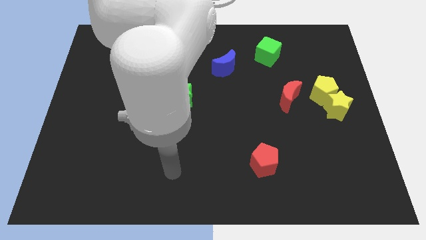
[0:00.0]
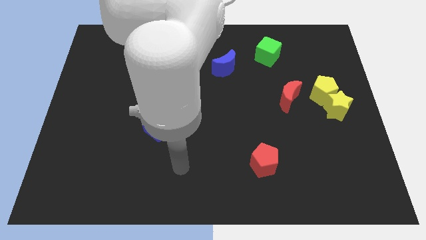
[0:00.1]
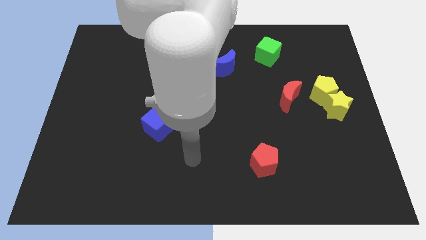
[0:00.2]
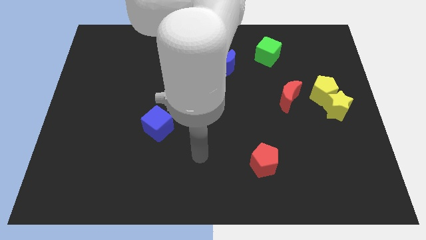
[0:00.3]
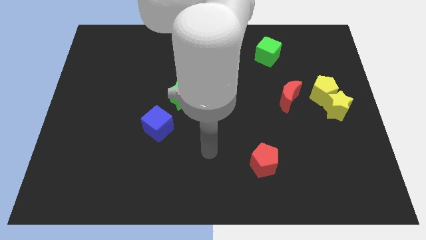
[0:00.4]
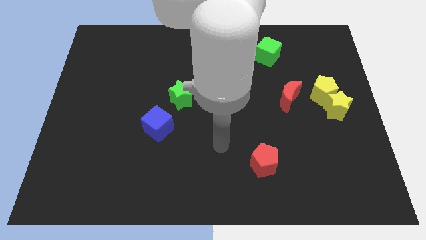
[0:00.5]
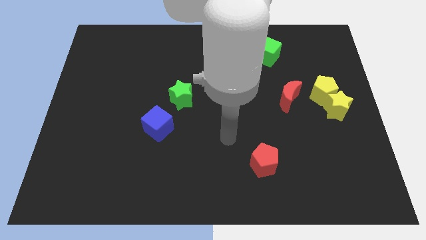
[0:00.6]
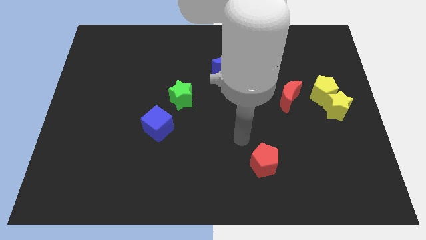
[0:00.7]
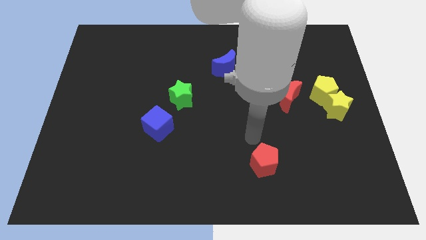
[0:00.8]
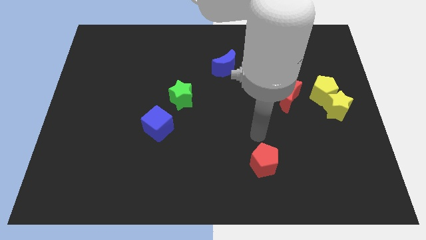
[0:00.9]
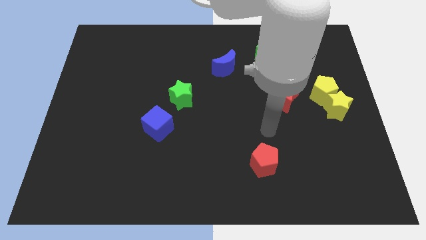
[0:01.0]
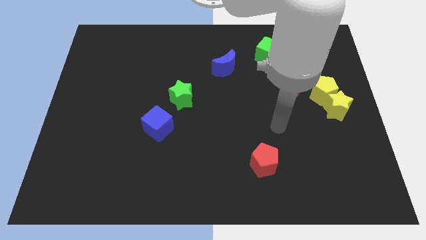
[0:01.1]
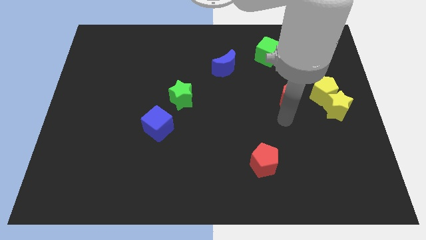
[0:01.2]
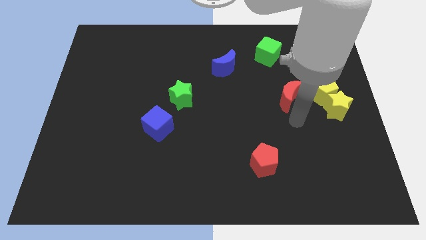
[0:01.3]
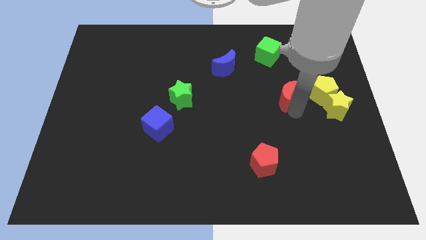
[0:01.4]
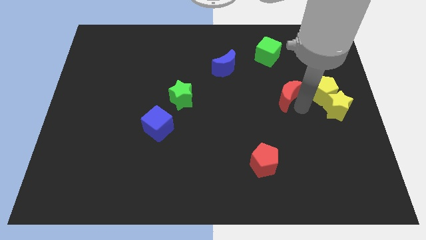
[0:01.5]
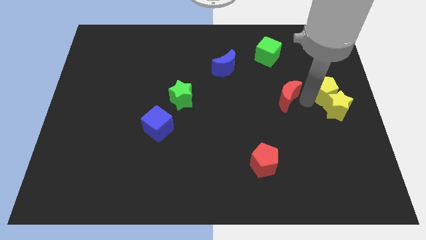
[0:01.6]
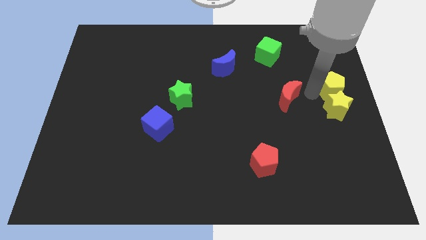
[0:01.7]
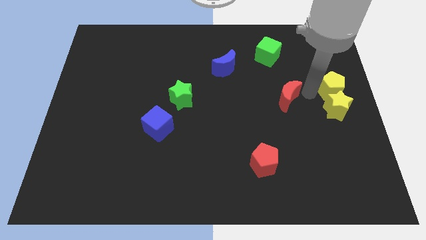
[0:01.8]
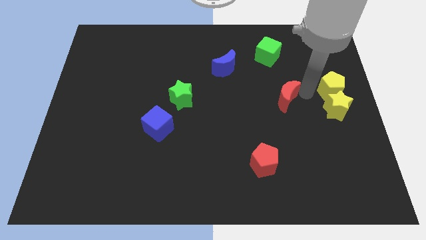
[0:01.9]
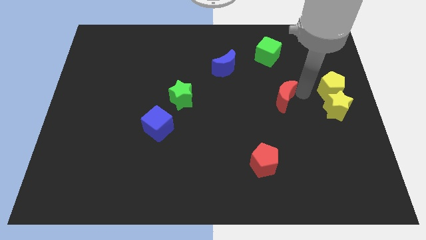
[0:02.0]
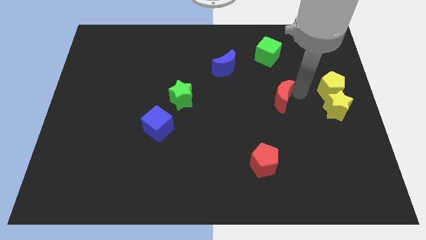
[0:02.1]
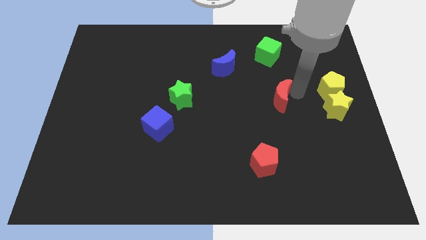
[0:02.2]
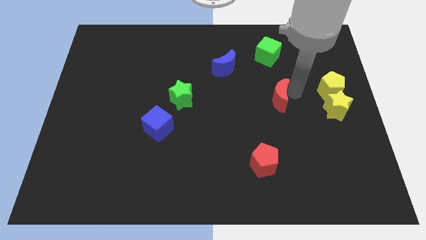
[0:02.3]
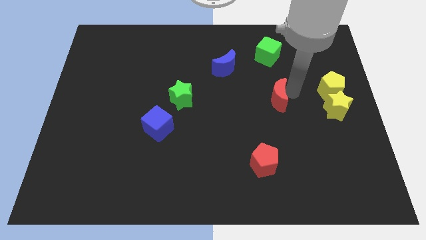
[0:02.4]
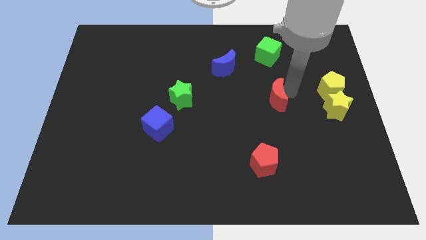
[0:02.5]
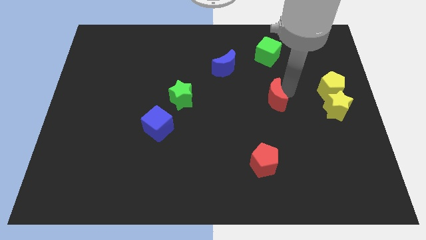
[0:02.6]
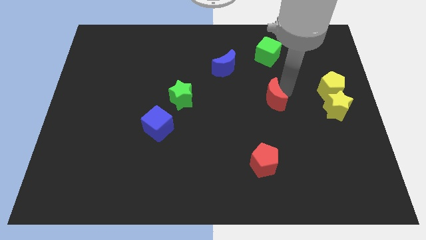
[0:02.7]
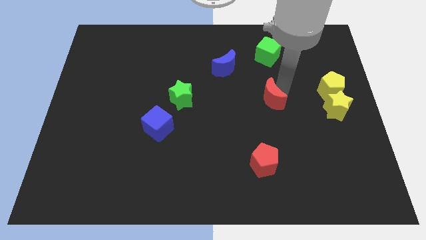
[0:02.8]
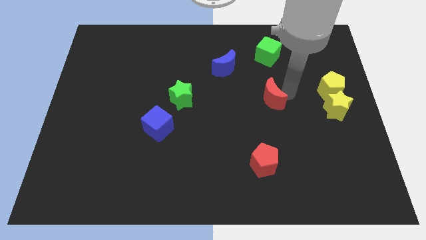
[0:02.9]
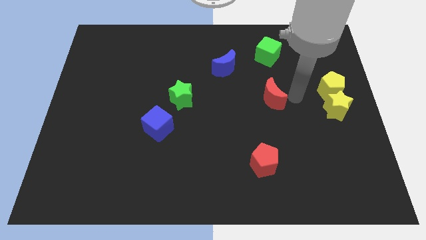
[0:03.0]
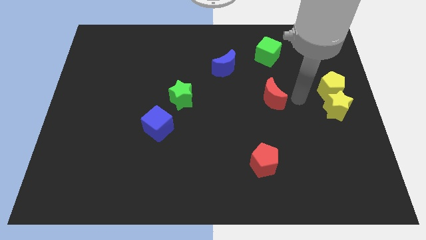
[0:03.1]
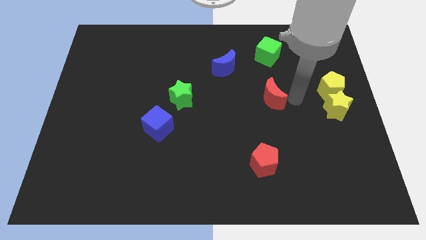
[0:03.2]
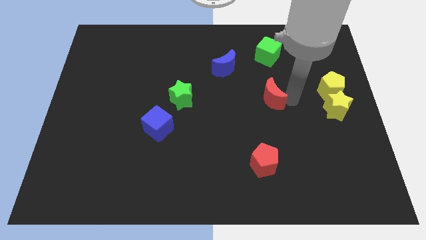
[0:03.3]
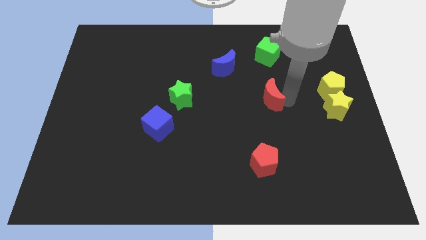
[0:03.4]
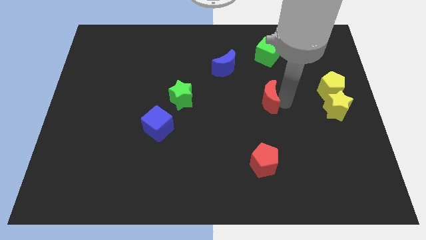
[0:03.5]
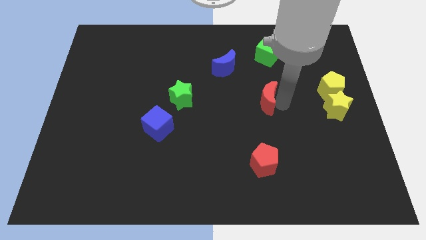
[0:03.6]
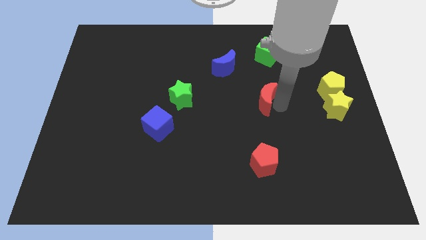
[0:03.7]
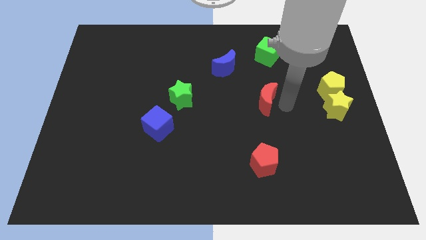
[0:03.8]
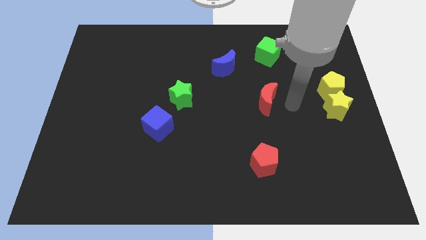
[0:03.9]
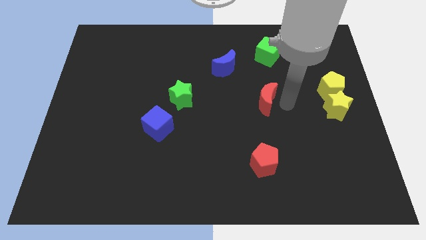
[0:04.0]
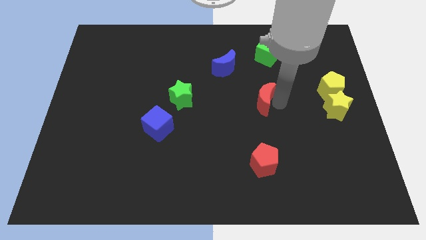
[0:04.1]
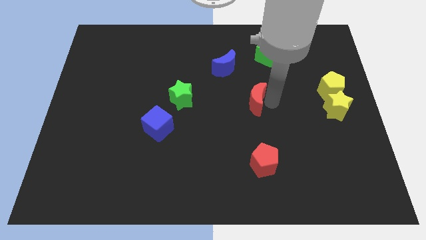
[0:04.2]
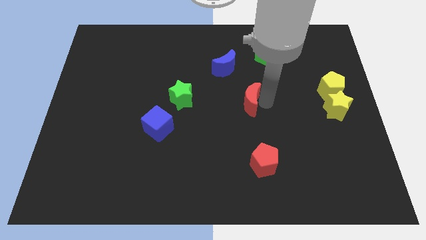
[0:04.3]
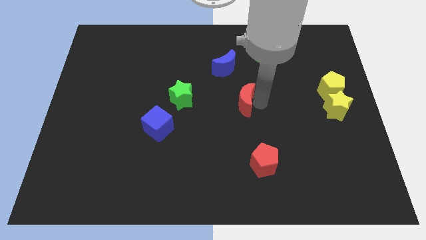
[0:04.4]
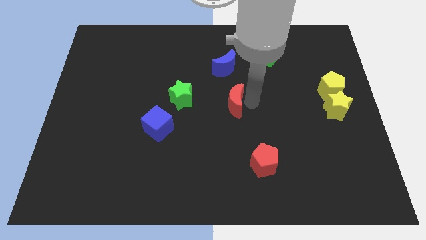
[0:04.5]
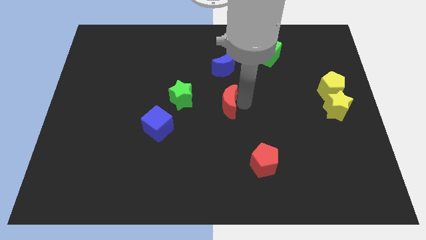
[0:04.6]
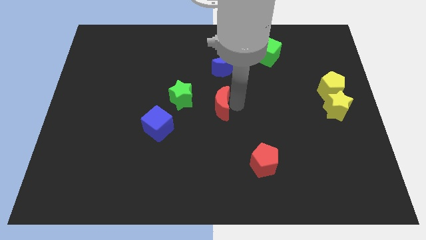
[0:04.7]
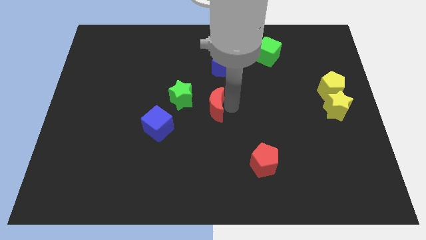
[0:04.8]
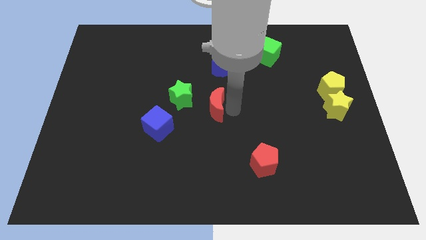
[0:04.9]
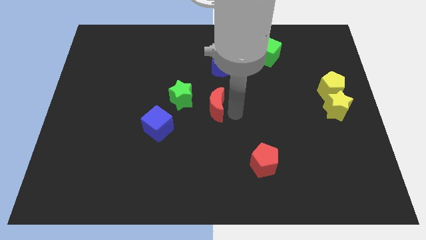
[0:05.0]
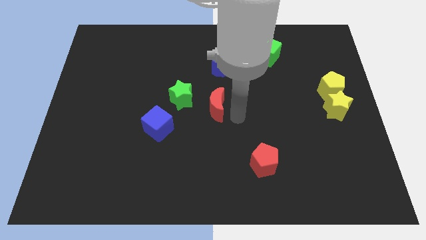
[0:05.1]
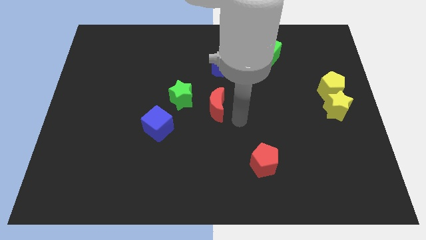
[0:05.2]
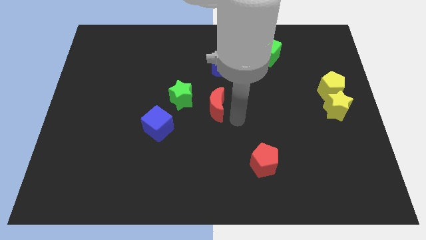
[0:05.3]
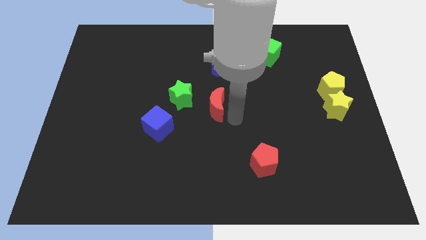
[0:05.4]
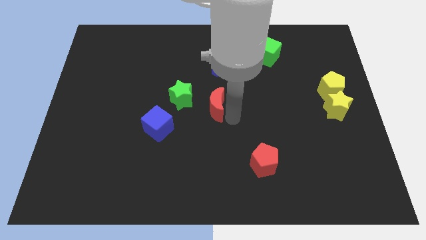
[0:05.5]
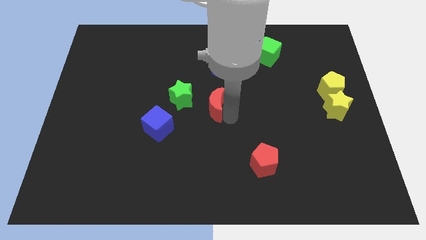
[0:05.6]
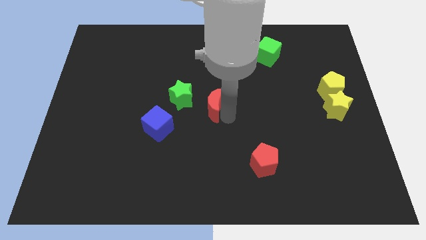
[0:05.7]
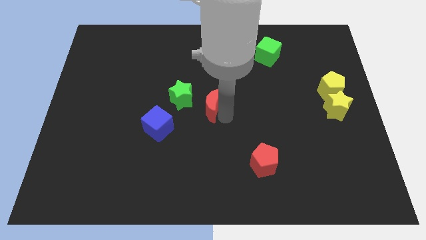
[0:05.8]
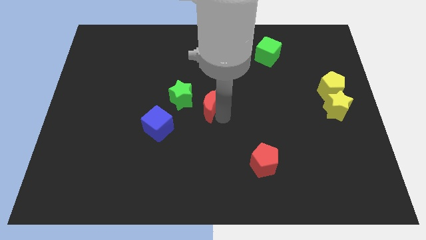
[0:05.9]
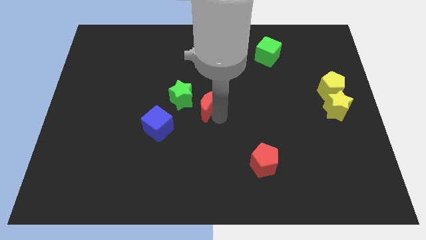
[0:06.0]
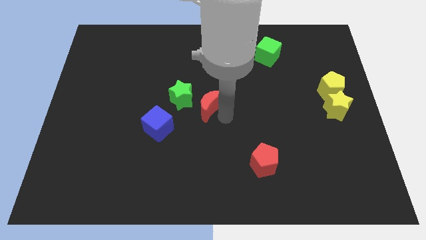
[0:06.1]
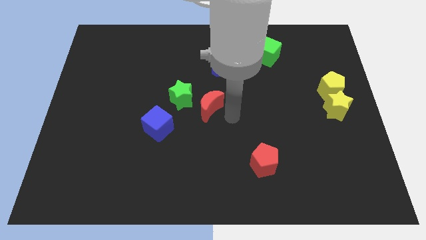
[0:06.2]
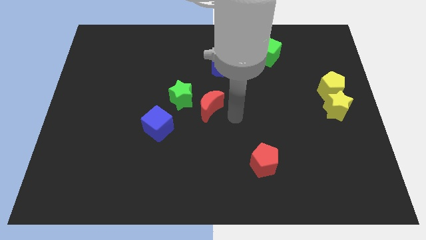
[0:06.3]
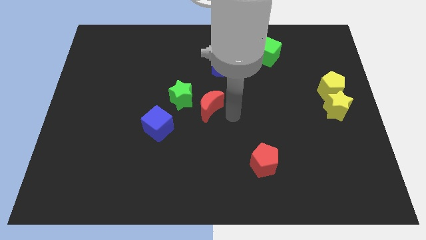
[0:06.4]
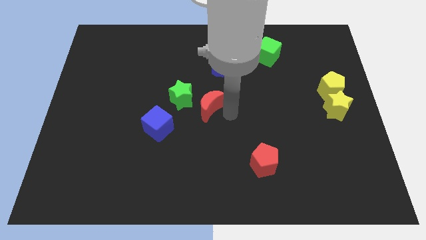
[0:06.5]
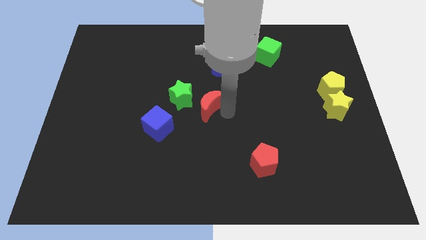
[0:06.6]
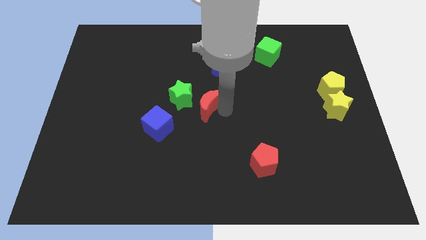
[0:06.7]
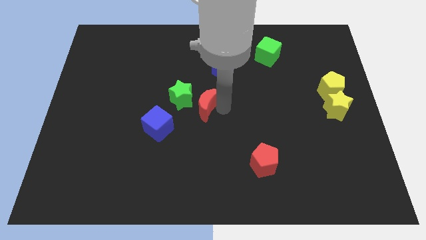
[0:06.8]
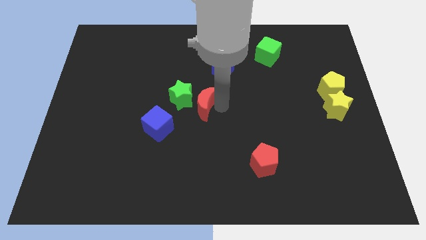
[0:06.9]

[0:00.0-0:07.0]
move the red moon towards the green star

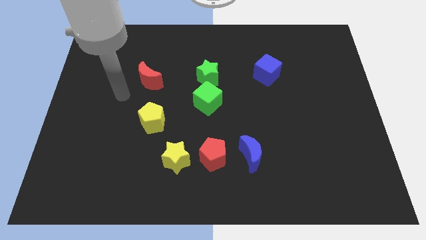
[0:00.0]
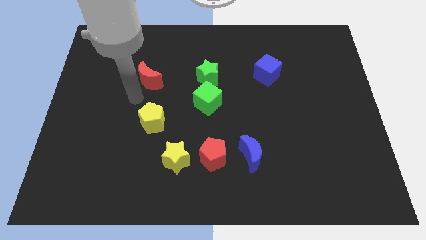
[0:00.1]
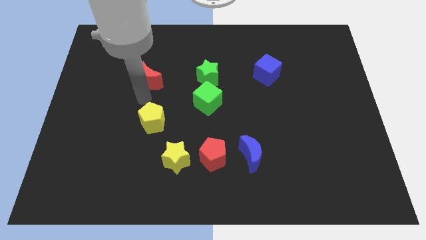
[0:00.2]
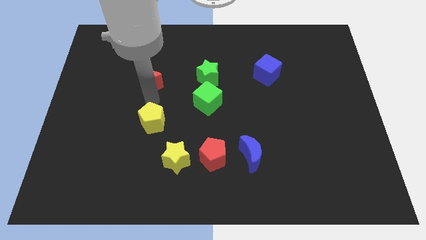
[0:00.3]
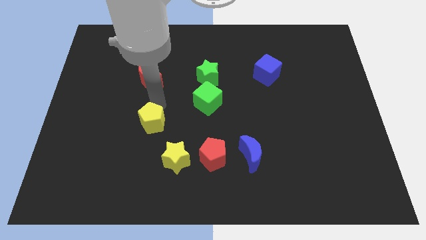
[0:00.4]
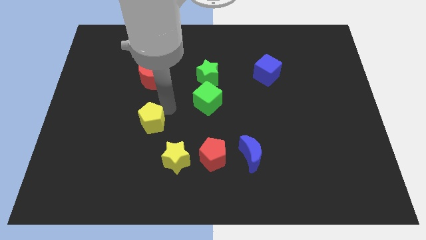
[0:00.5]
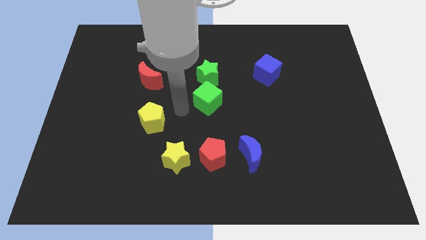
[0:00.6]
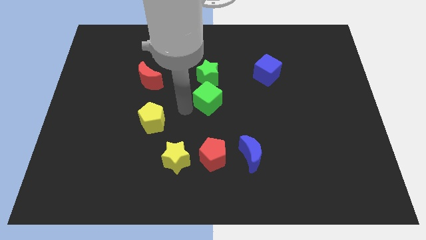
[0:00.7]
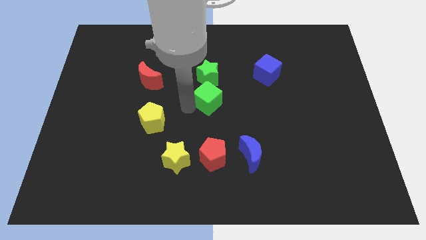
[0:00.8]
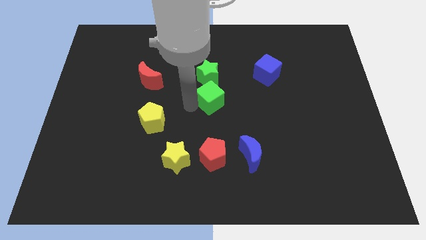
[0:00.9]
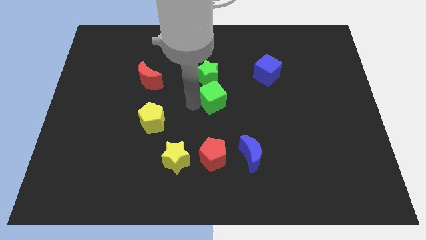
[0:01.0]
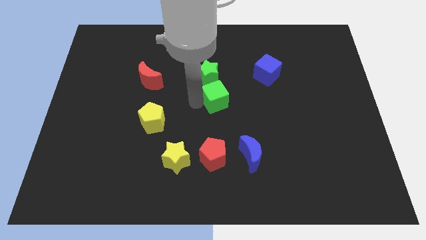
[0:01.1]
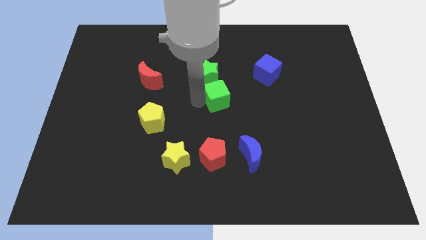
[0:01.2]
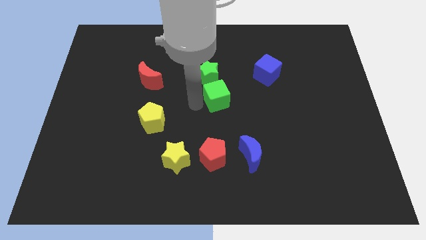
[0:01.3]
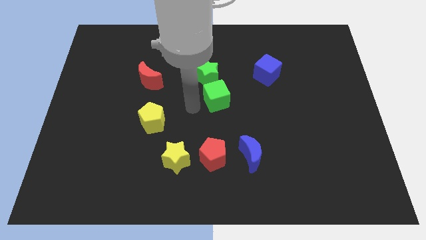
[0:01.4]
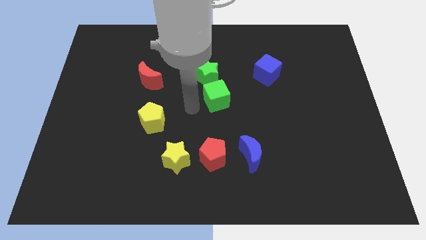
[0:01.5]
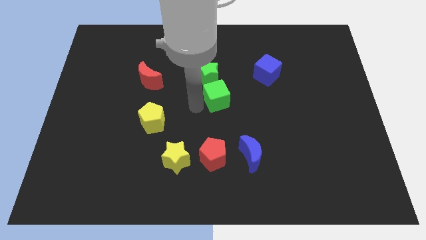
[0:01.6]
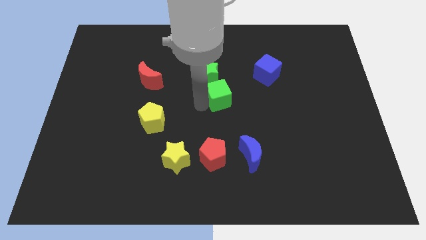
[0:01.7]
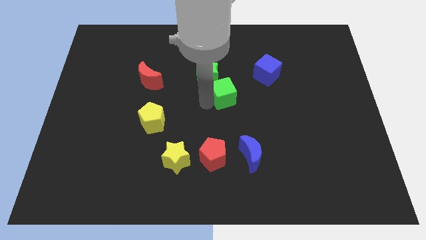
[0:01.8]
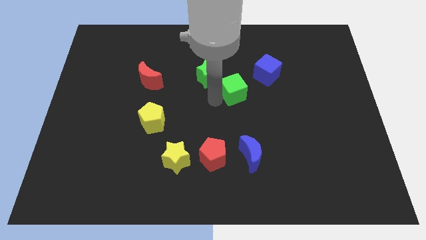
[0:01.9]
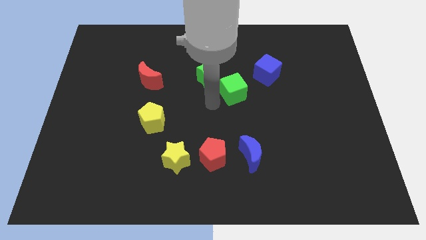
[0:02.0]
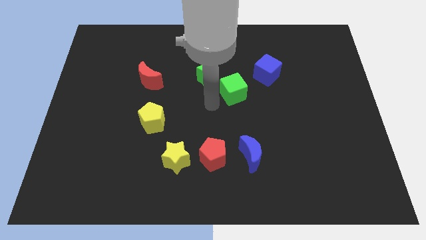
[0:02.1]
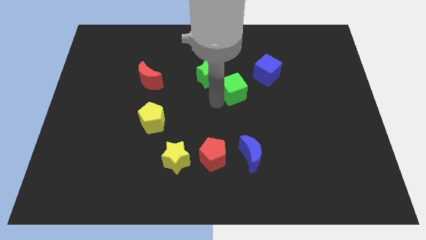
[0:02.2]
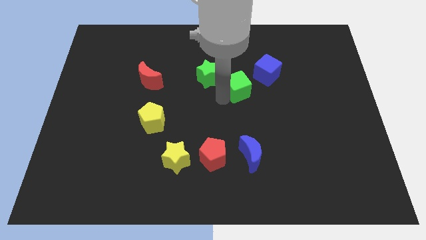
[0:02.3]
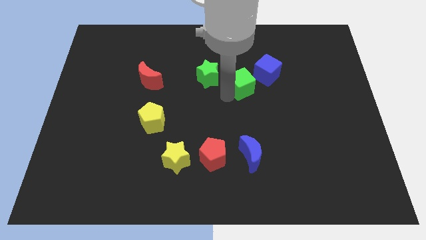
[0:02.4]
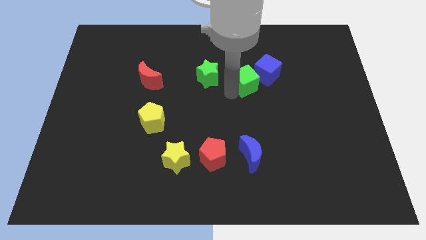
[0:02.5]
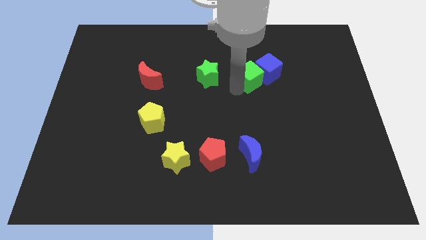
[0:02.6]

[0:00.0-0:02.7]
push the green cube close to the blue cube
